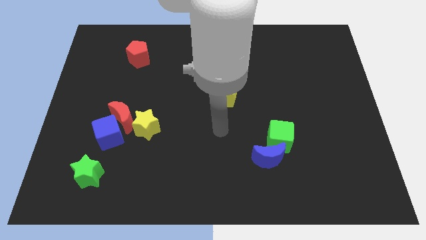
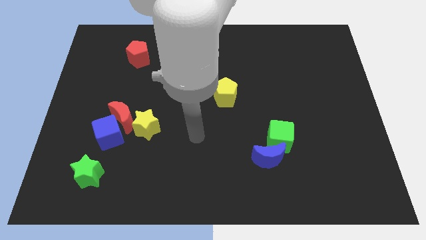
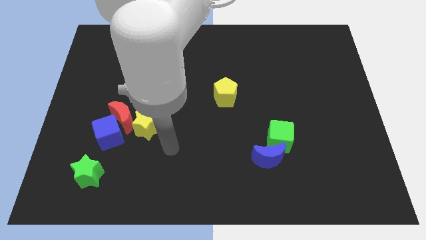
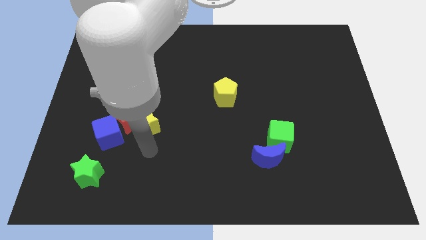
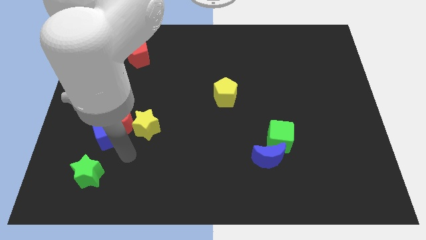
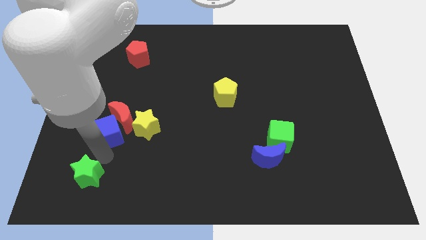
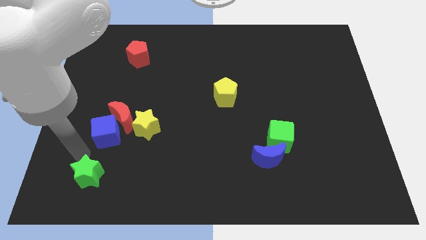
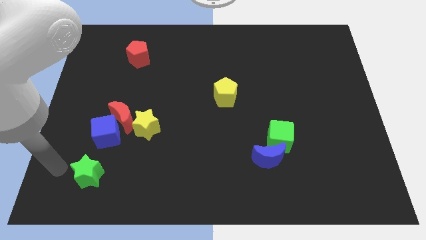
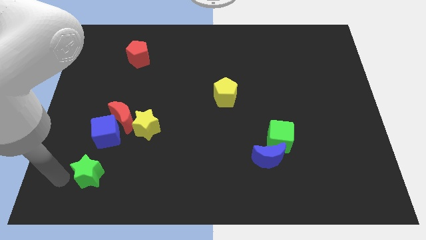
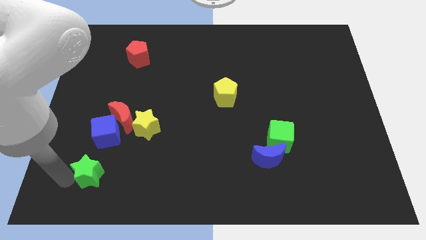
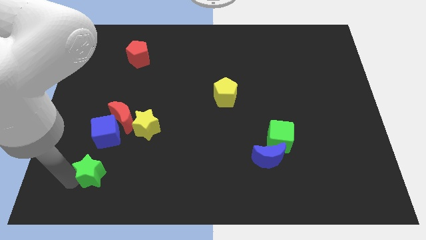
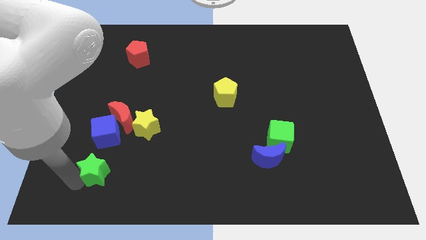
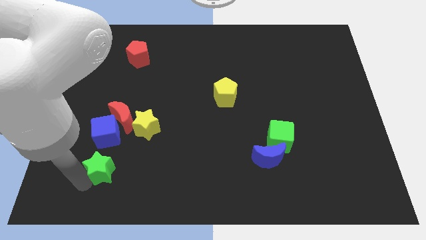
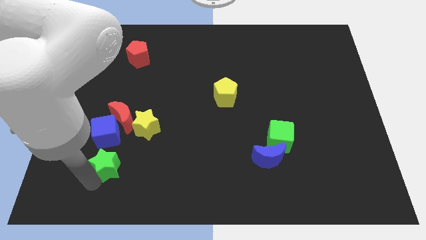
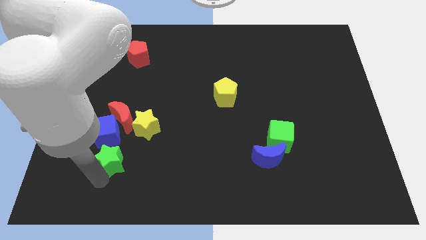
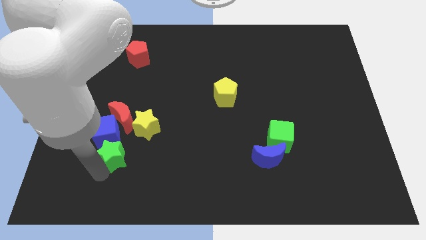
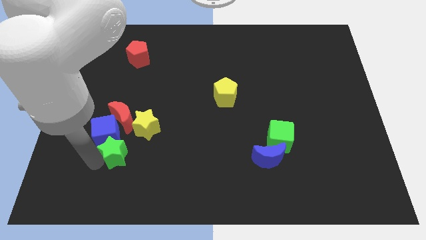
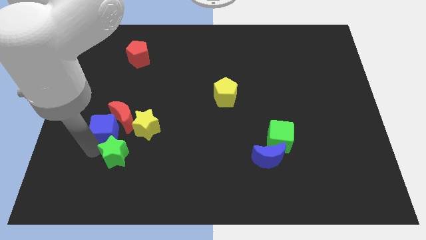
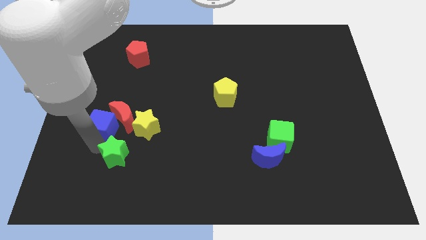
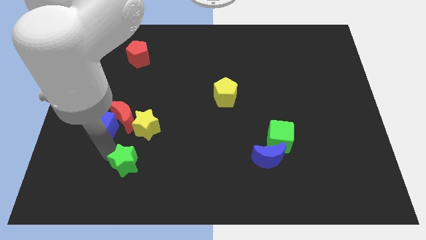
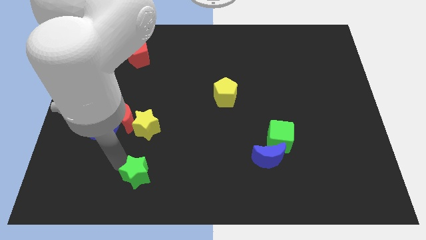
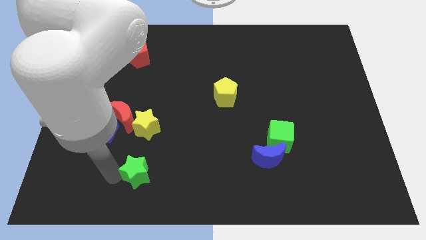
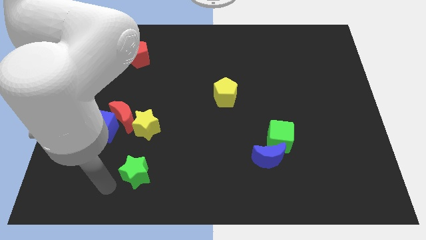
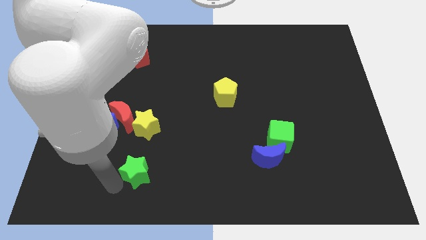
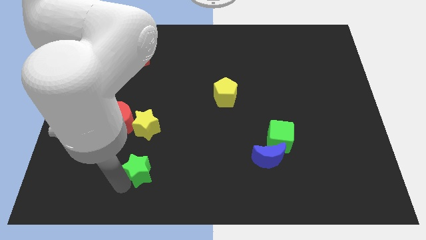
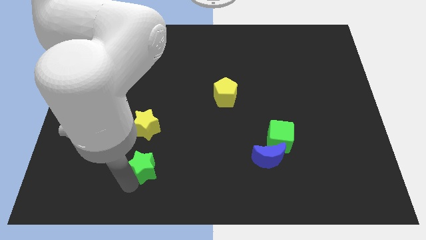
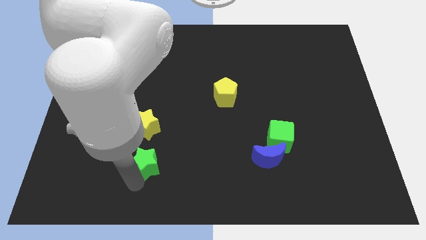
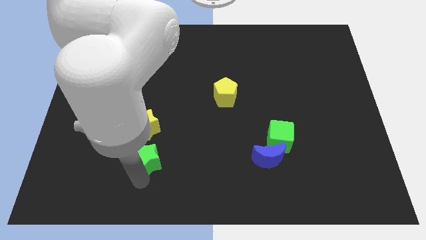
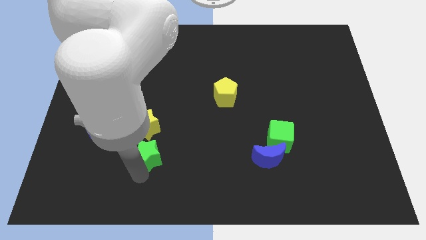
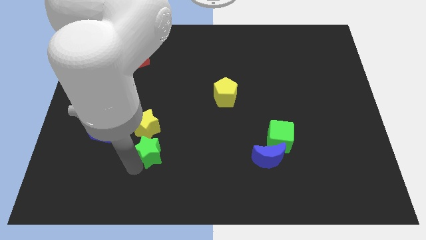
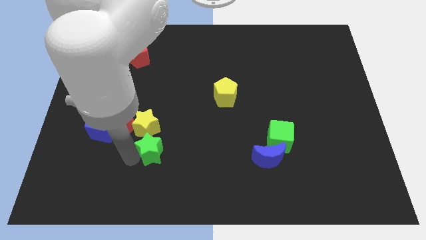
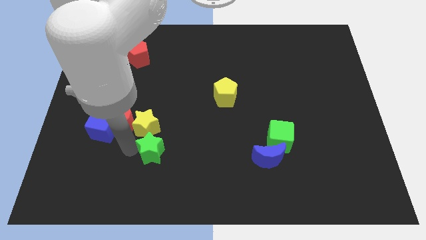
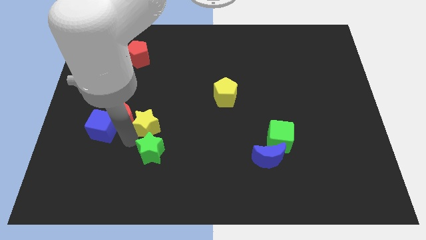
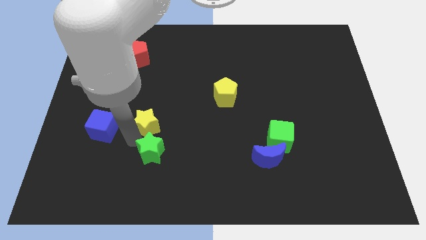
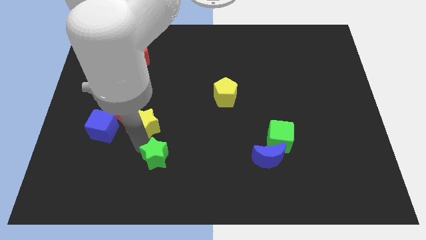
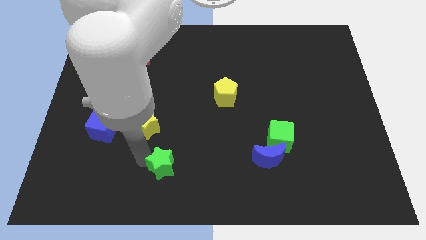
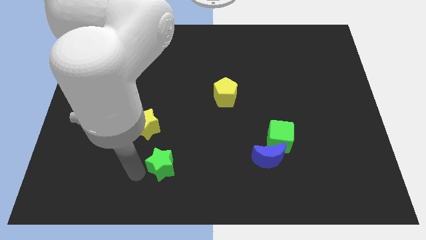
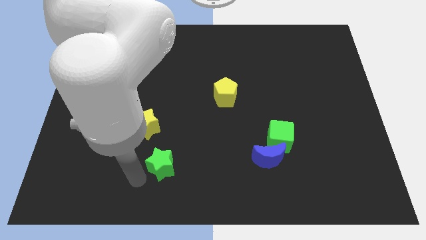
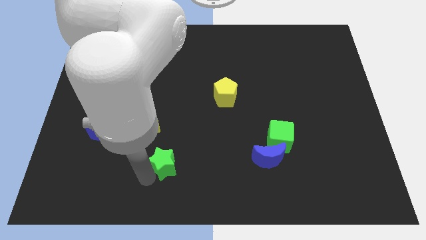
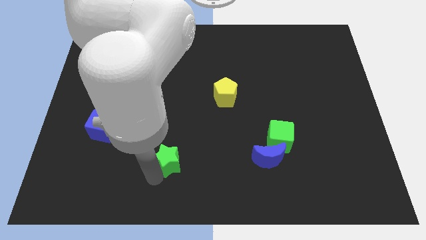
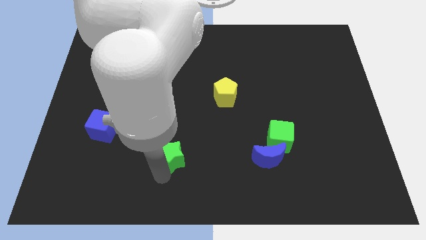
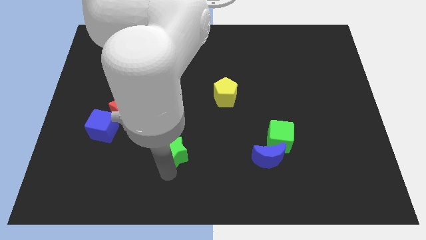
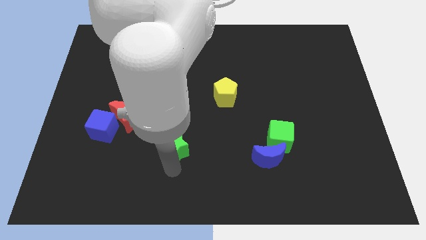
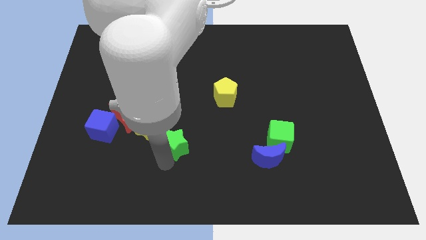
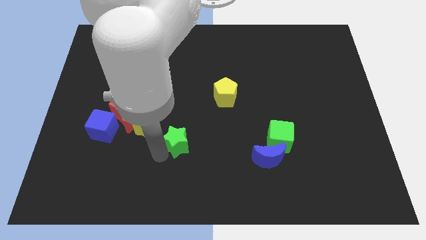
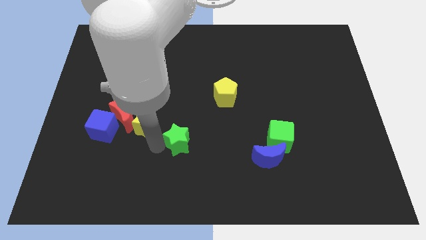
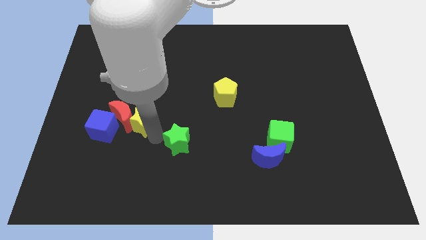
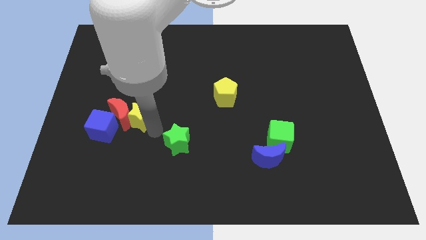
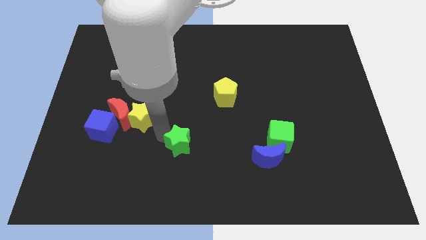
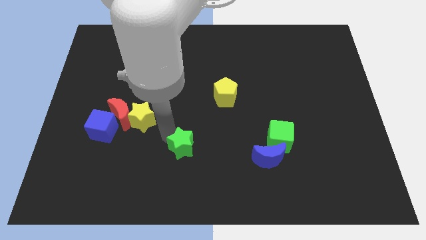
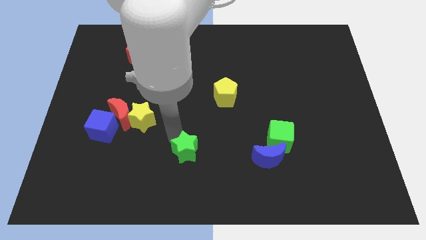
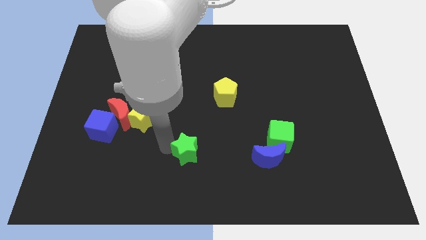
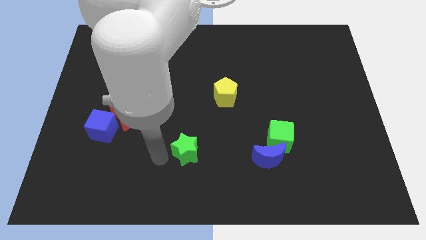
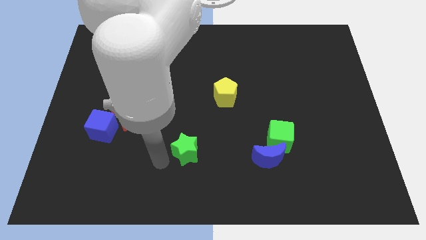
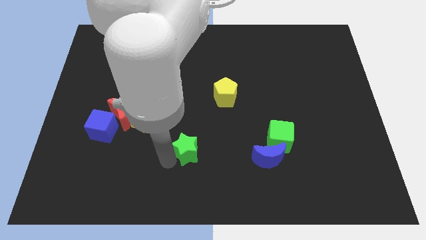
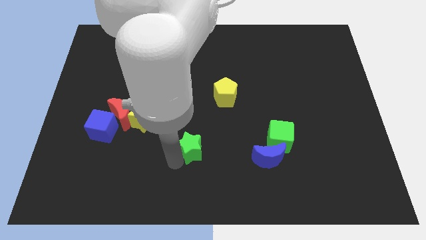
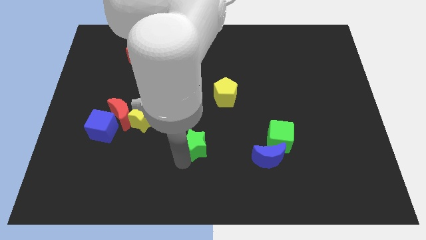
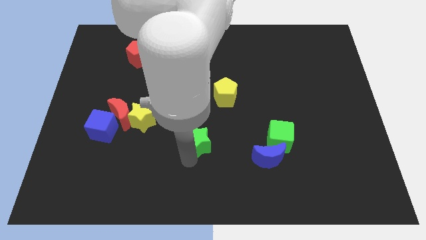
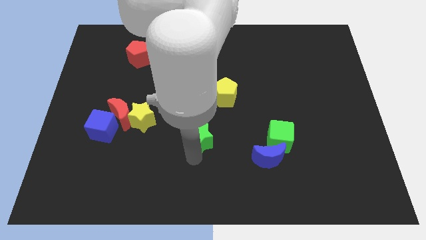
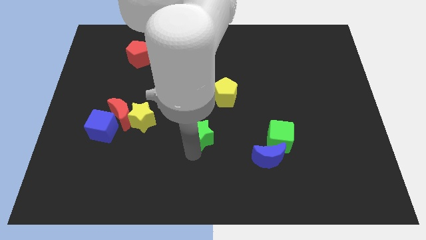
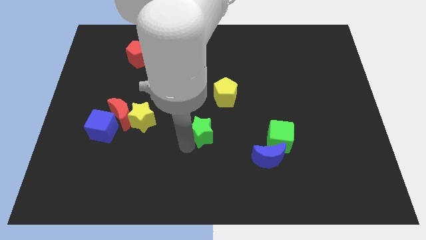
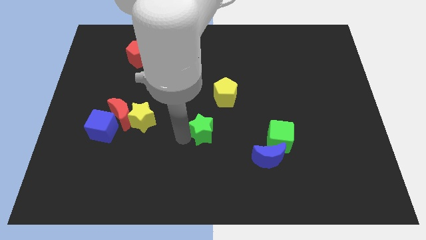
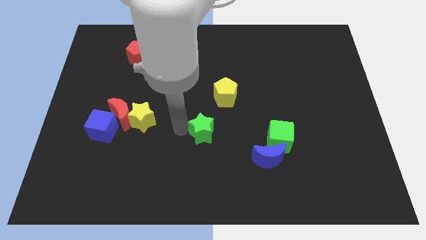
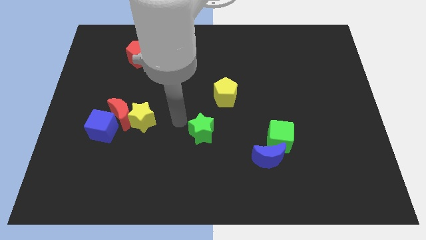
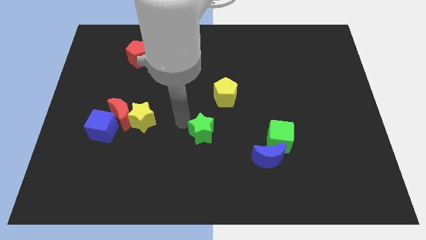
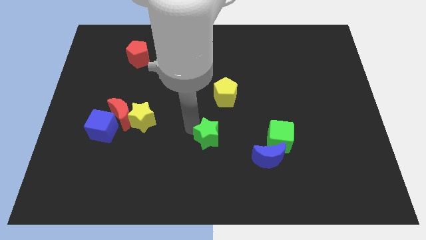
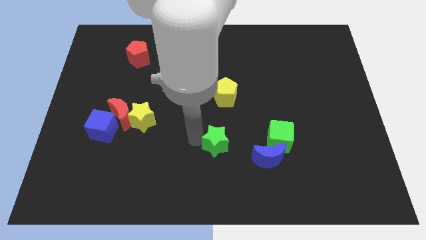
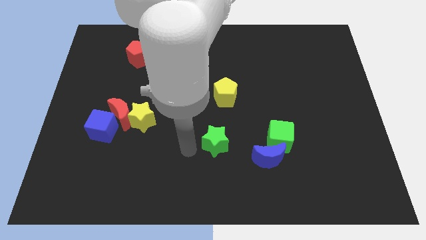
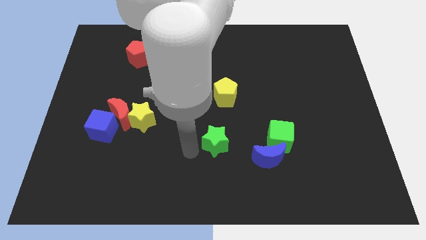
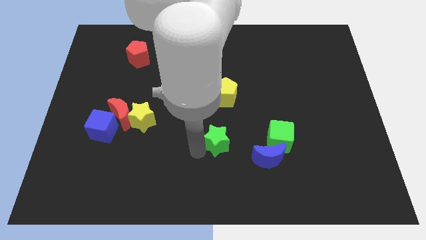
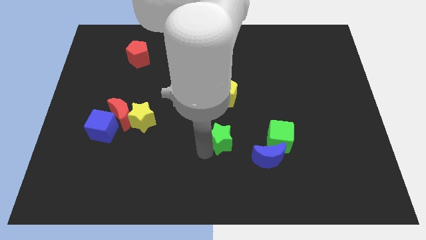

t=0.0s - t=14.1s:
push the green star to the top left of the blue moon
